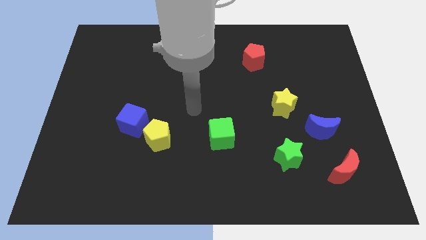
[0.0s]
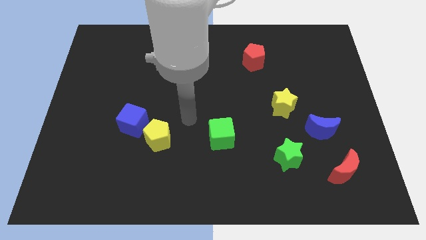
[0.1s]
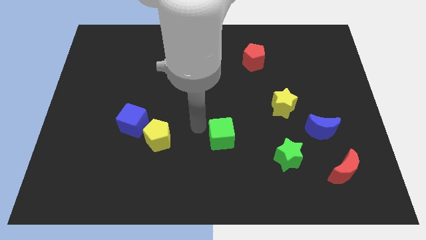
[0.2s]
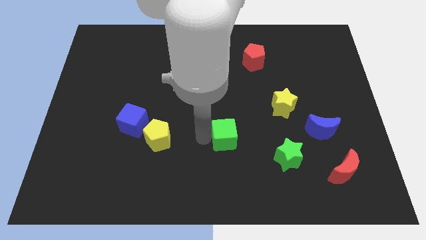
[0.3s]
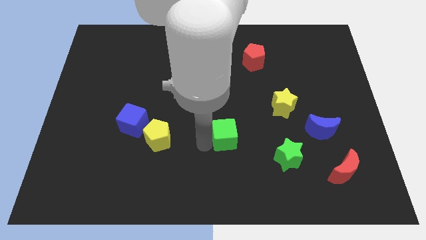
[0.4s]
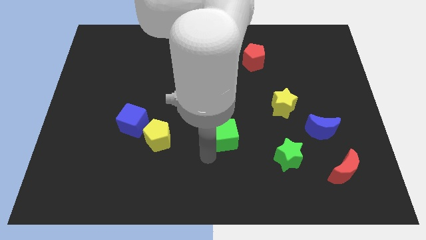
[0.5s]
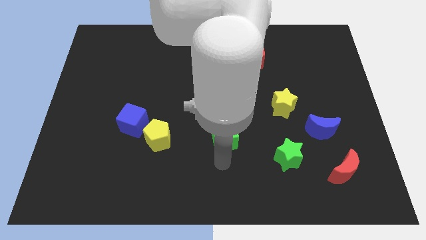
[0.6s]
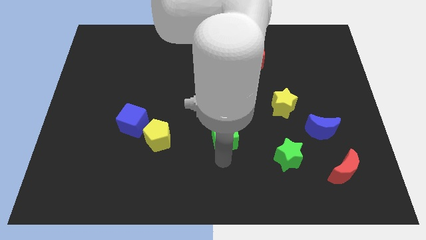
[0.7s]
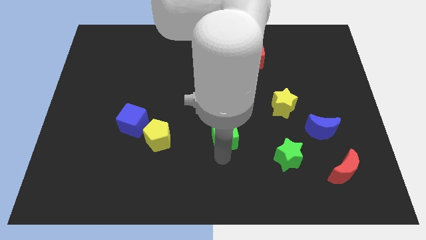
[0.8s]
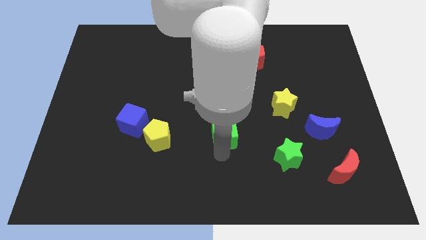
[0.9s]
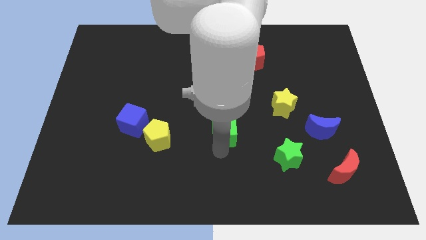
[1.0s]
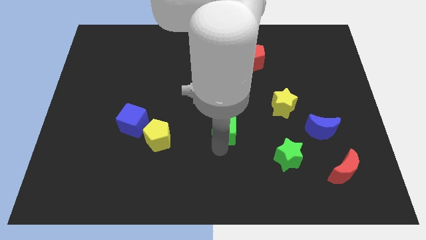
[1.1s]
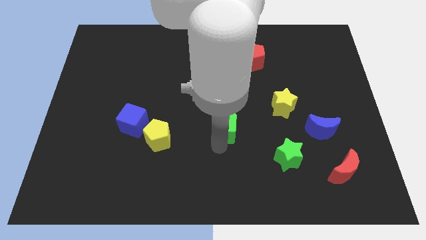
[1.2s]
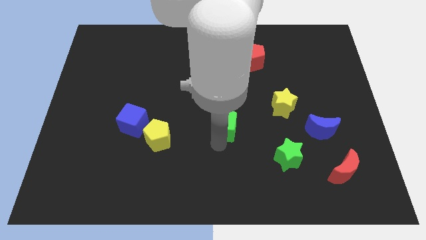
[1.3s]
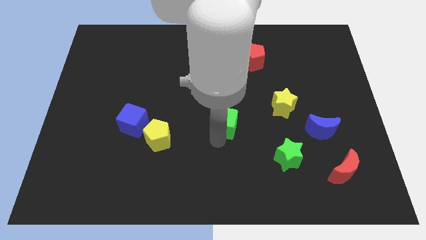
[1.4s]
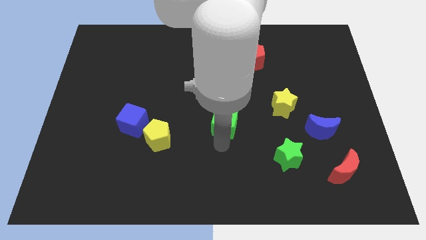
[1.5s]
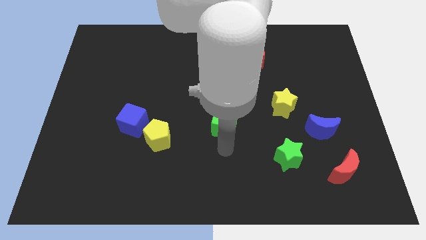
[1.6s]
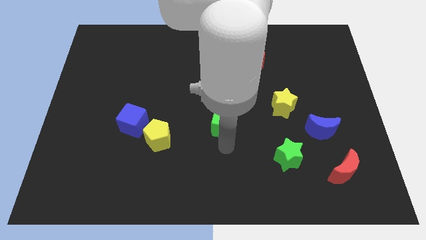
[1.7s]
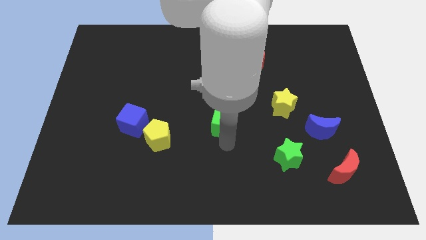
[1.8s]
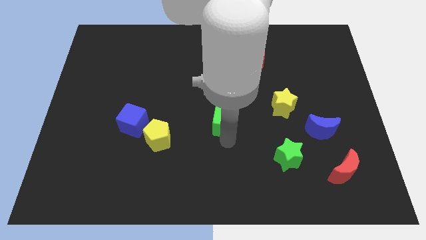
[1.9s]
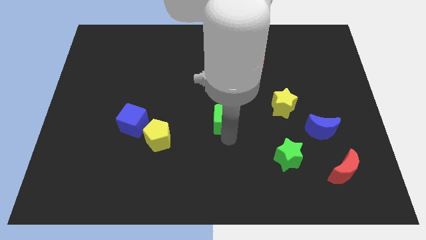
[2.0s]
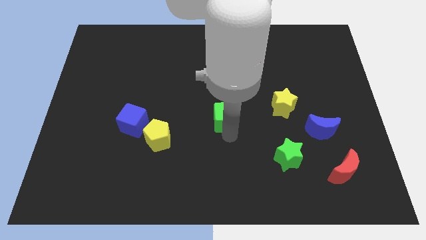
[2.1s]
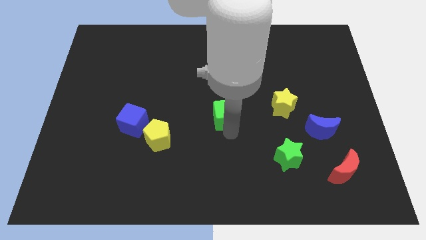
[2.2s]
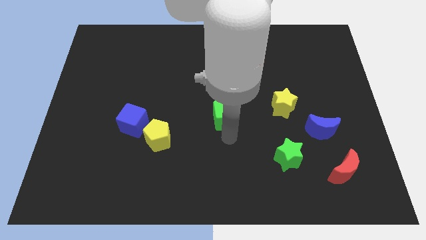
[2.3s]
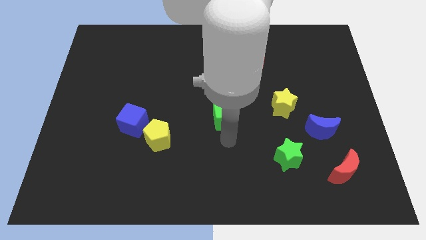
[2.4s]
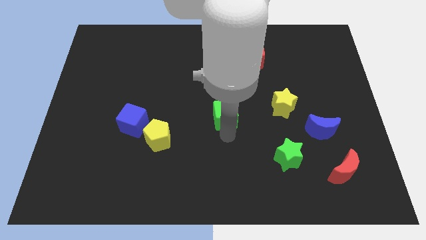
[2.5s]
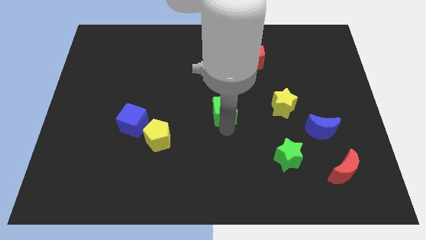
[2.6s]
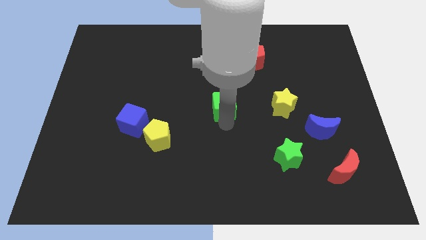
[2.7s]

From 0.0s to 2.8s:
move the green cube up a little

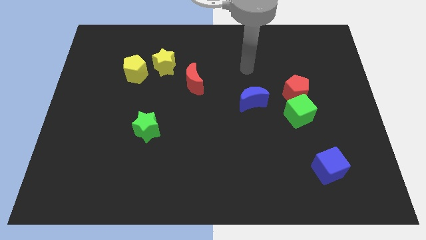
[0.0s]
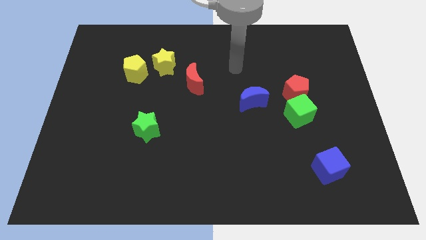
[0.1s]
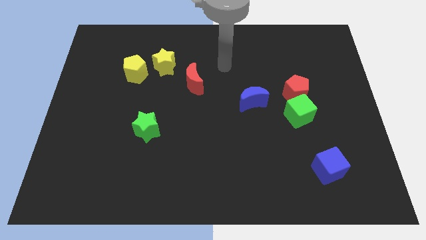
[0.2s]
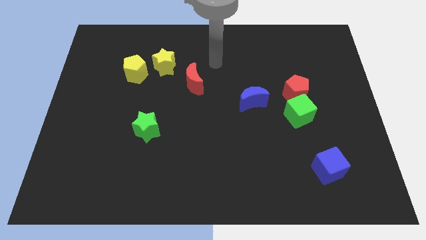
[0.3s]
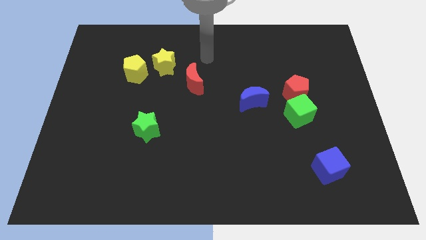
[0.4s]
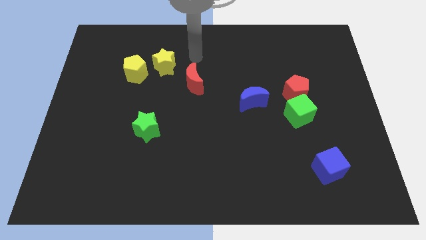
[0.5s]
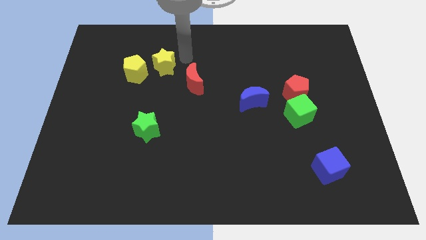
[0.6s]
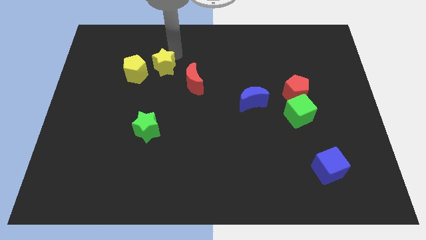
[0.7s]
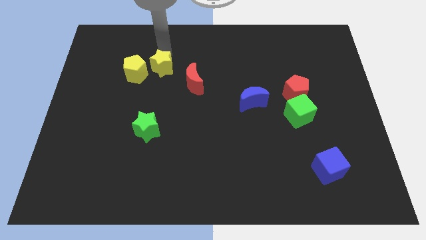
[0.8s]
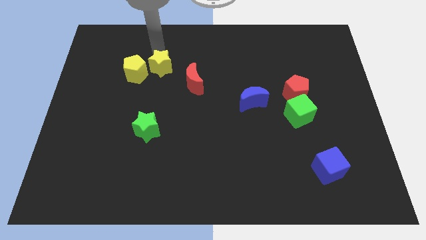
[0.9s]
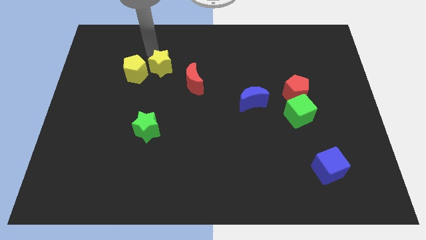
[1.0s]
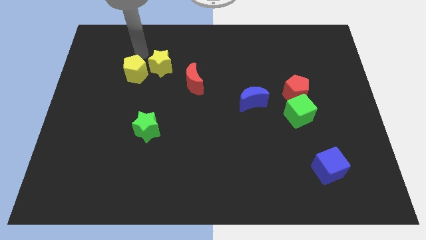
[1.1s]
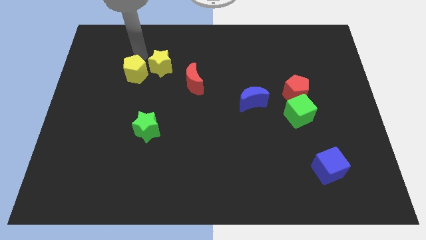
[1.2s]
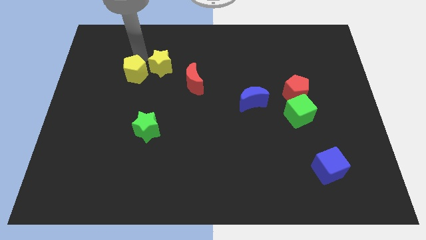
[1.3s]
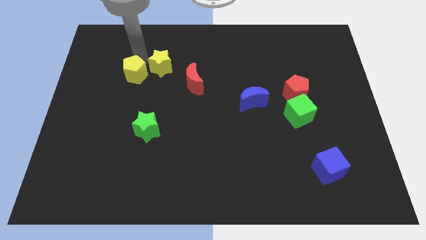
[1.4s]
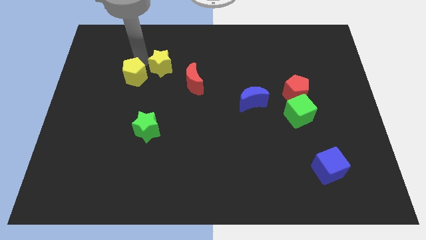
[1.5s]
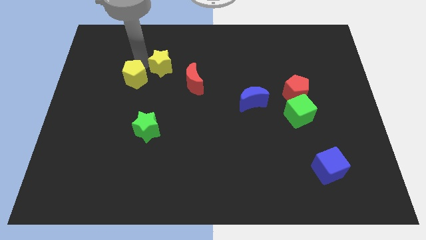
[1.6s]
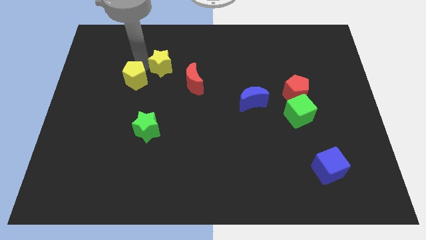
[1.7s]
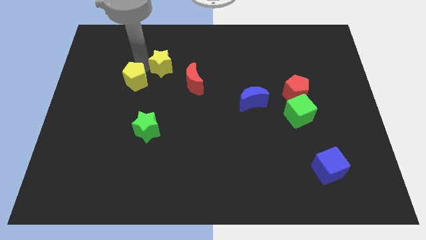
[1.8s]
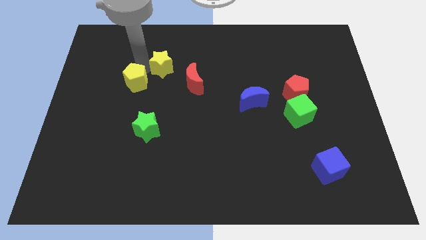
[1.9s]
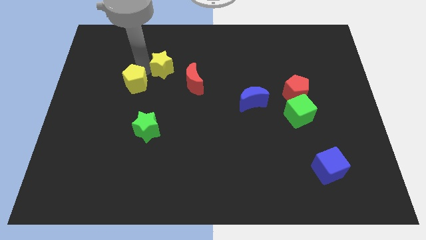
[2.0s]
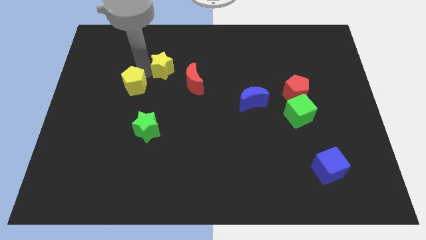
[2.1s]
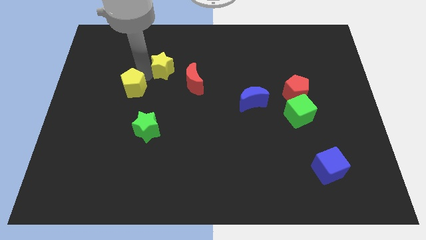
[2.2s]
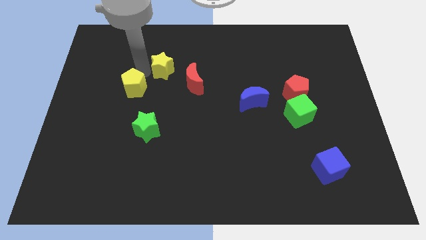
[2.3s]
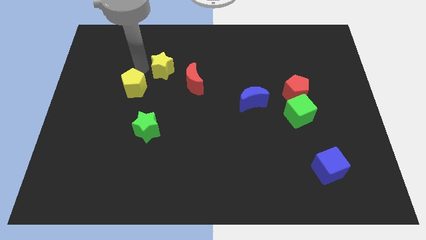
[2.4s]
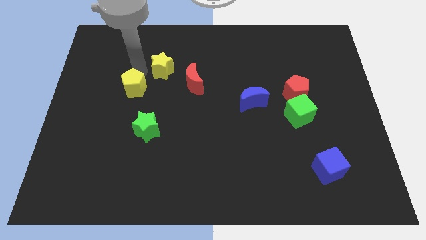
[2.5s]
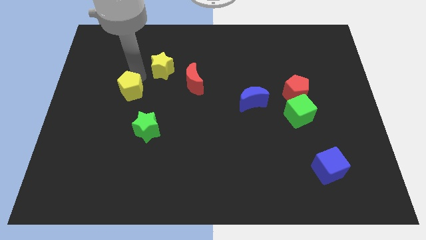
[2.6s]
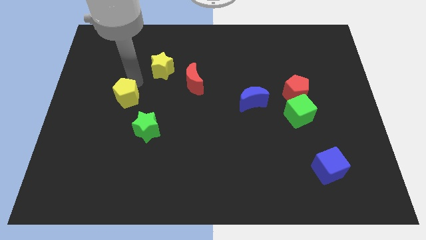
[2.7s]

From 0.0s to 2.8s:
move the yellow pentagon a little downwards

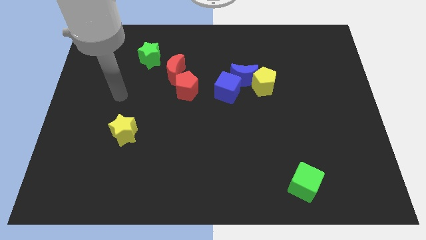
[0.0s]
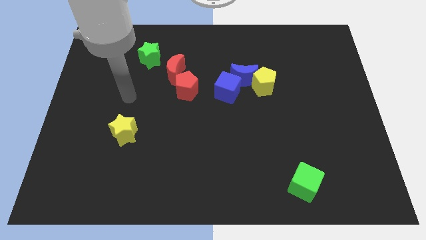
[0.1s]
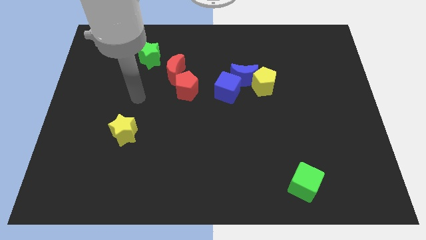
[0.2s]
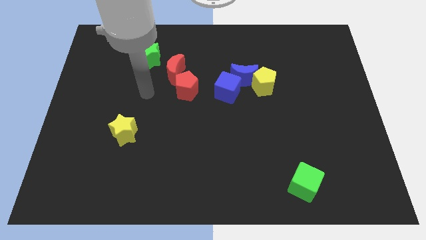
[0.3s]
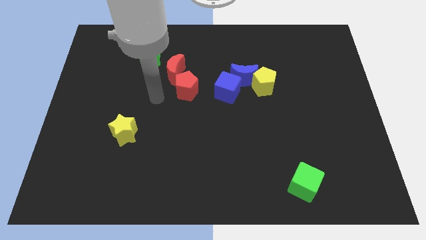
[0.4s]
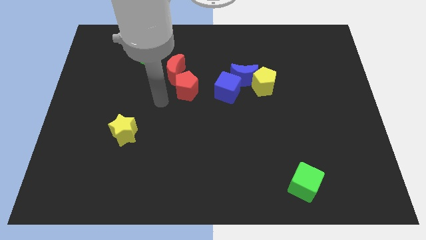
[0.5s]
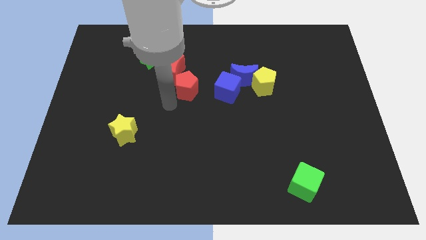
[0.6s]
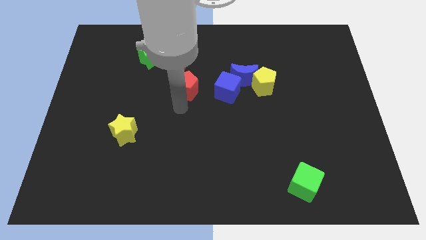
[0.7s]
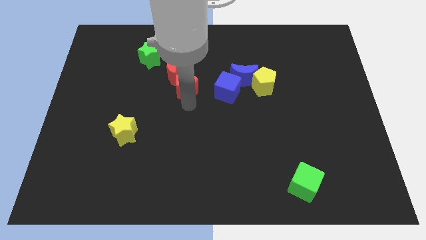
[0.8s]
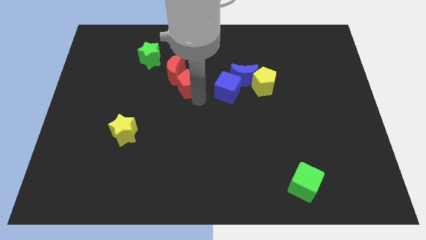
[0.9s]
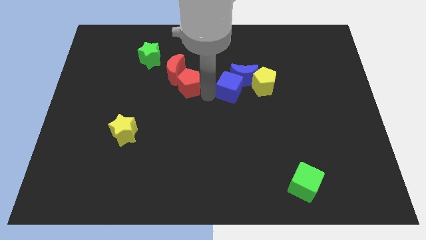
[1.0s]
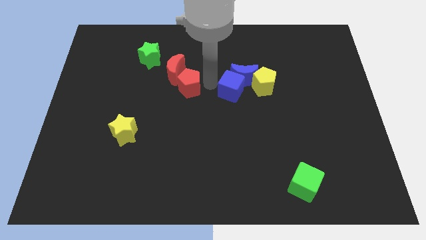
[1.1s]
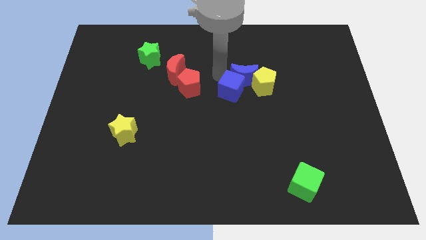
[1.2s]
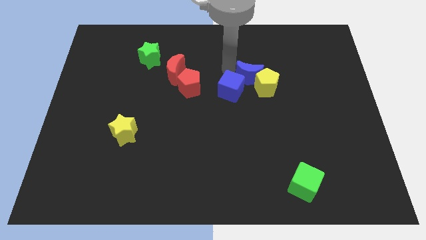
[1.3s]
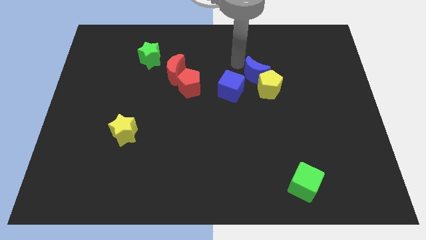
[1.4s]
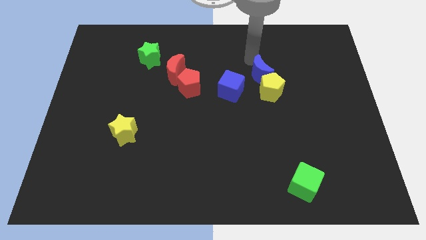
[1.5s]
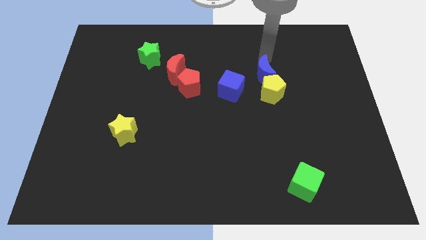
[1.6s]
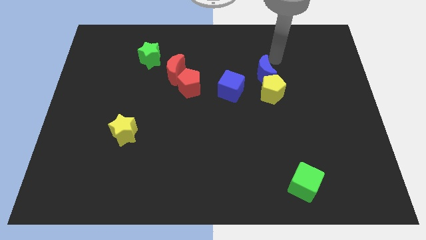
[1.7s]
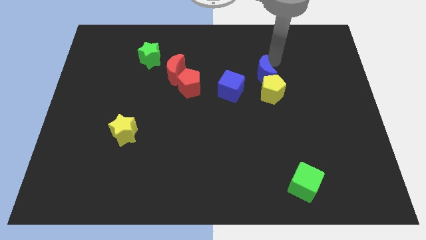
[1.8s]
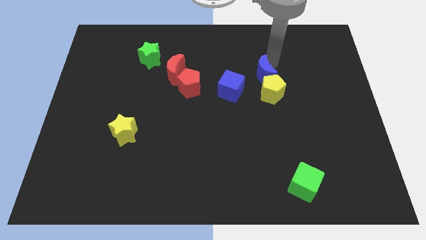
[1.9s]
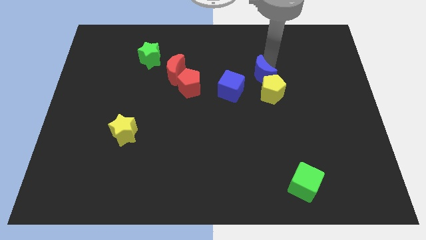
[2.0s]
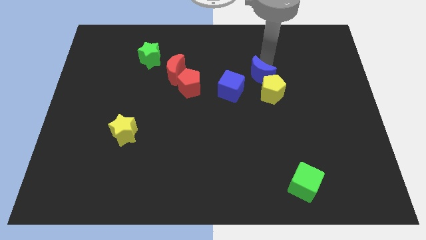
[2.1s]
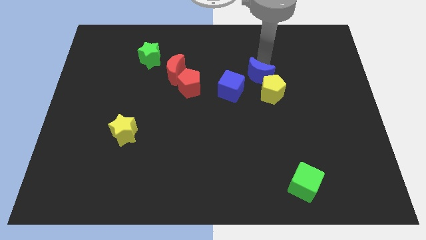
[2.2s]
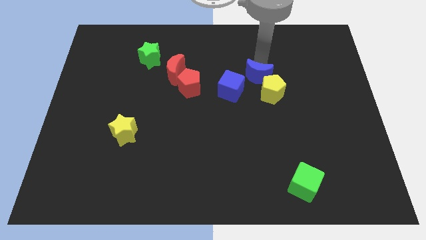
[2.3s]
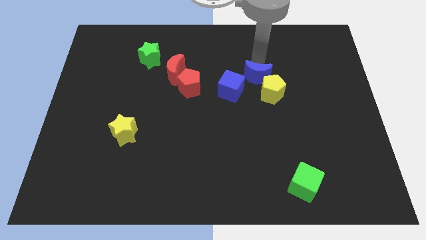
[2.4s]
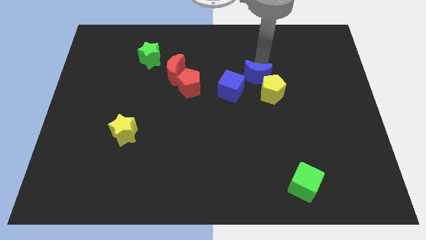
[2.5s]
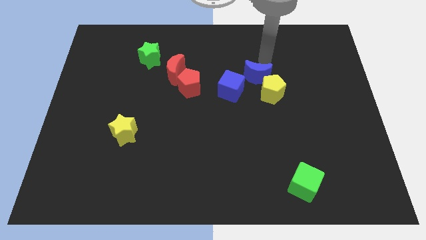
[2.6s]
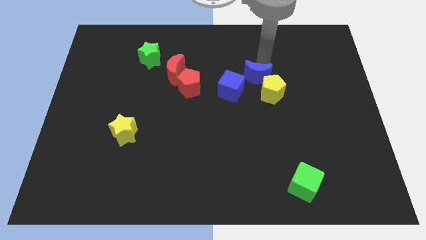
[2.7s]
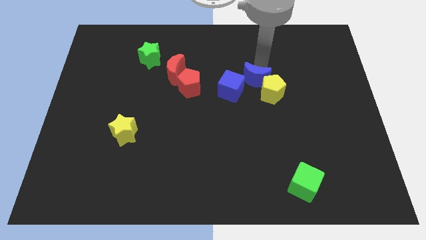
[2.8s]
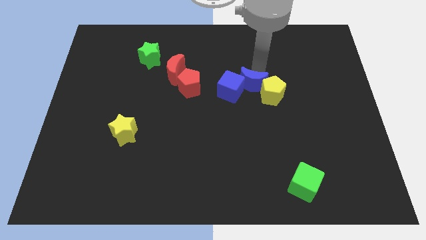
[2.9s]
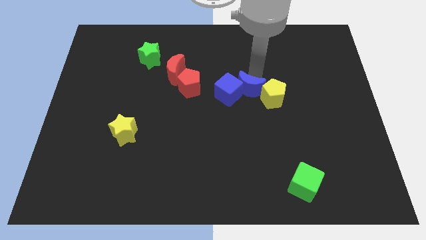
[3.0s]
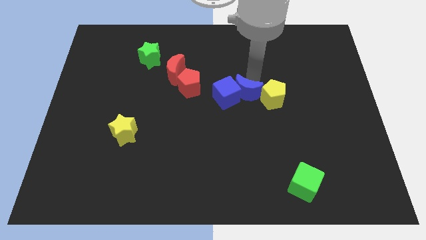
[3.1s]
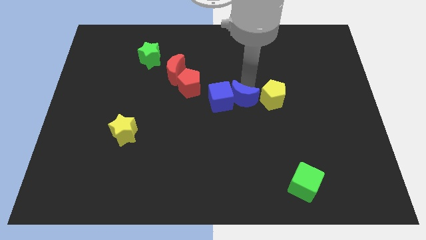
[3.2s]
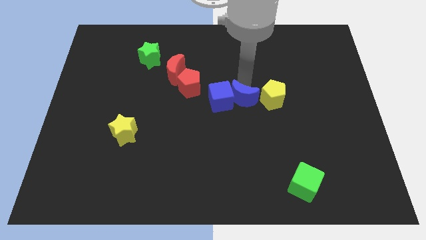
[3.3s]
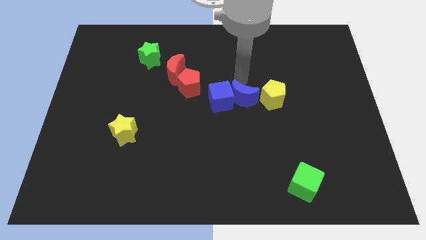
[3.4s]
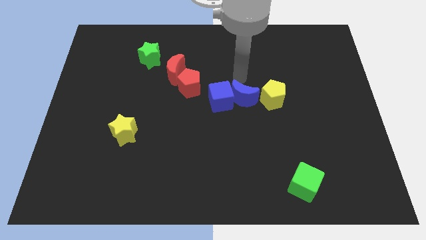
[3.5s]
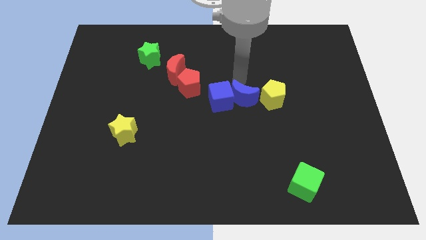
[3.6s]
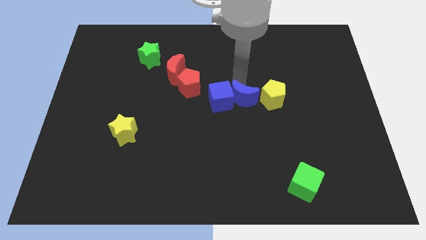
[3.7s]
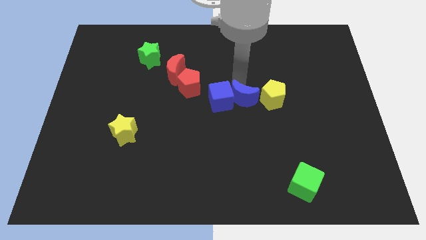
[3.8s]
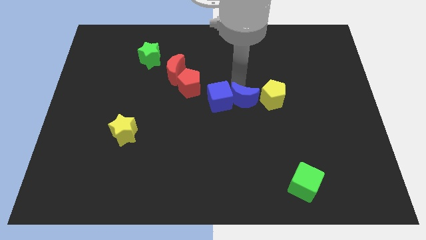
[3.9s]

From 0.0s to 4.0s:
slide the blue moon somewhat downwards
